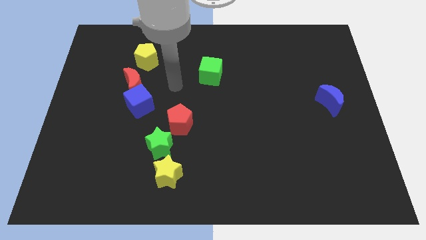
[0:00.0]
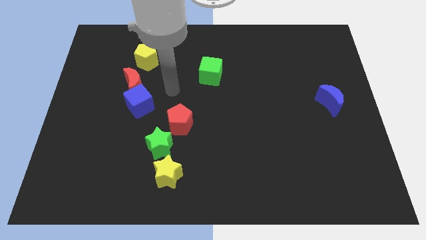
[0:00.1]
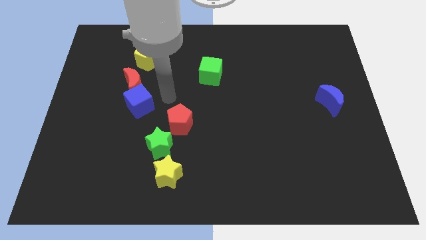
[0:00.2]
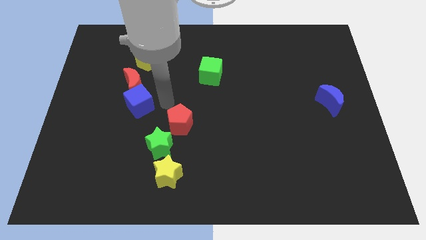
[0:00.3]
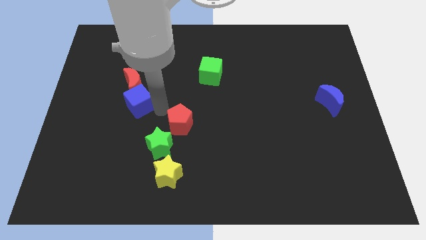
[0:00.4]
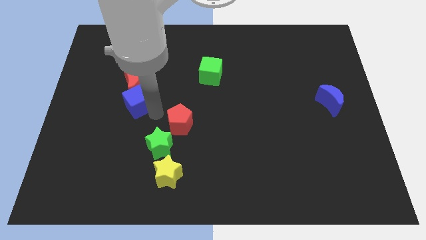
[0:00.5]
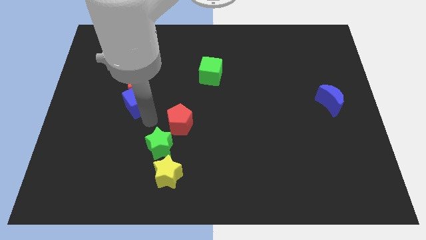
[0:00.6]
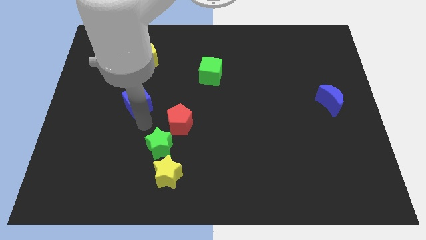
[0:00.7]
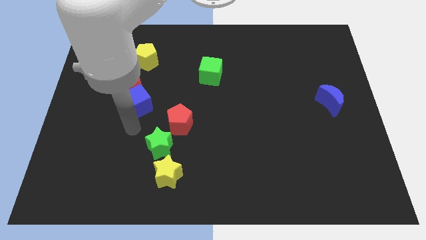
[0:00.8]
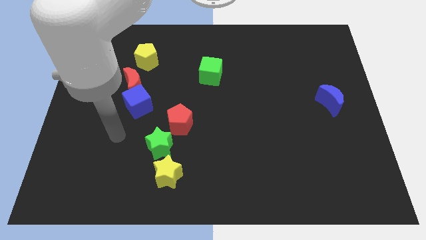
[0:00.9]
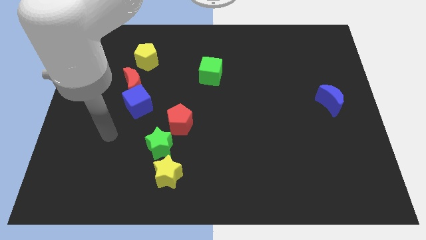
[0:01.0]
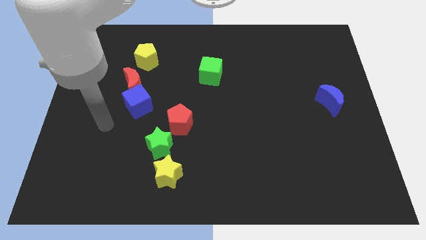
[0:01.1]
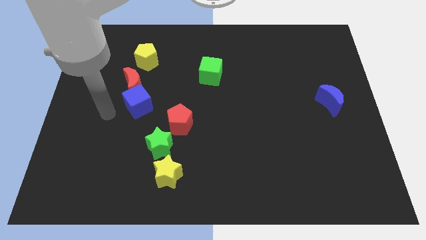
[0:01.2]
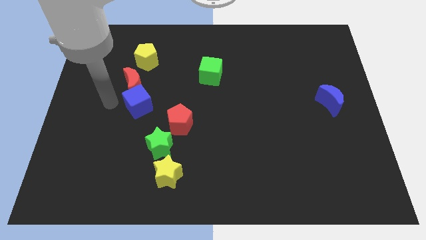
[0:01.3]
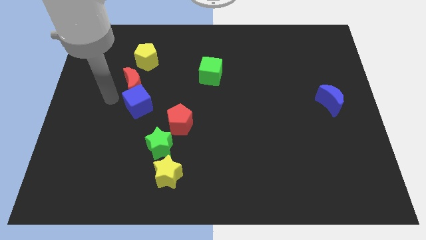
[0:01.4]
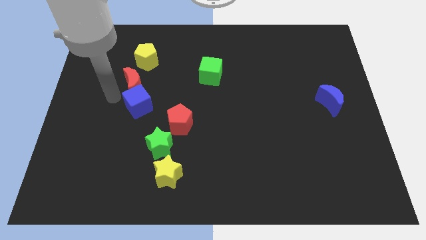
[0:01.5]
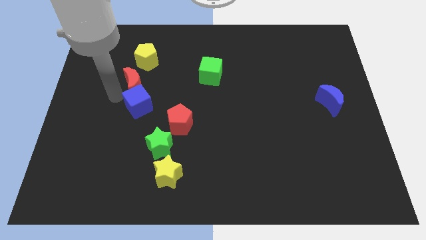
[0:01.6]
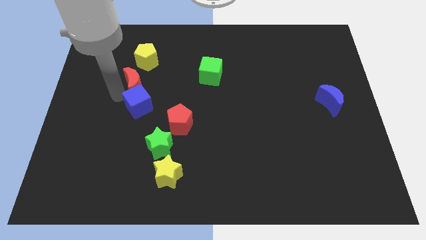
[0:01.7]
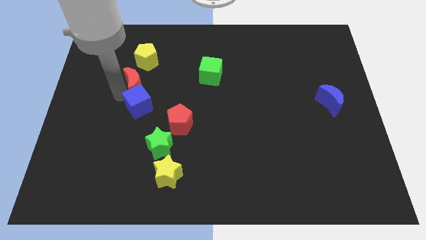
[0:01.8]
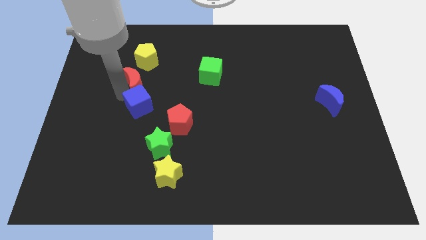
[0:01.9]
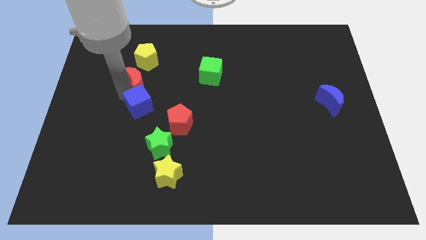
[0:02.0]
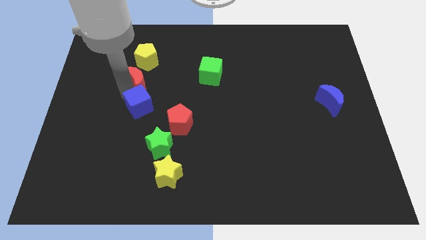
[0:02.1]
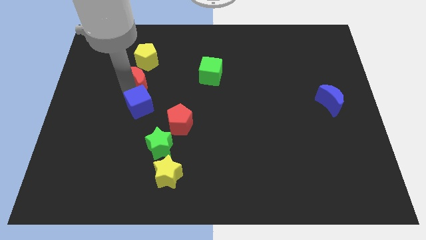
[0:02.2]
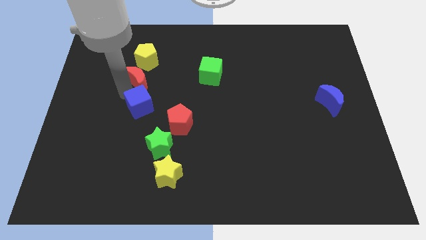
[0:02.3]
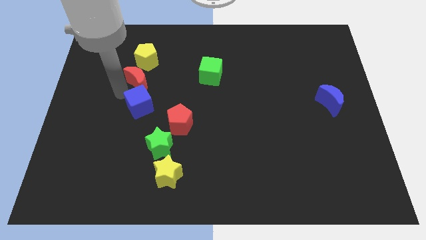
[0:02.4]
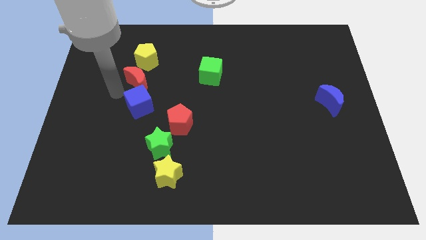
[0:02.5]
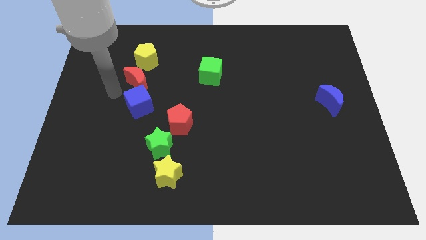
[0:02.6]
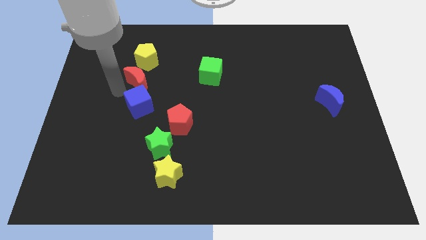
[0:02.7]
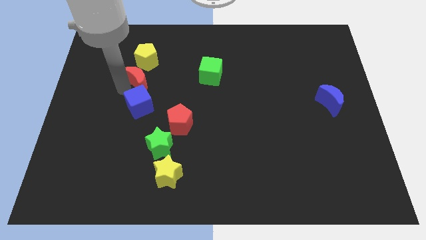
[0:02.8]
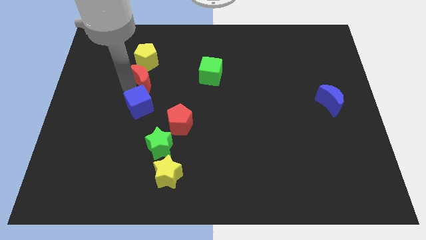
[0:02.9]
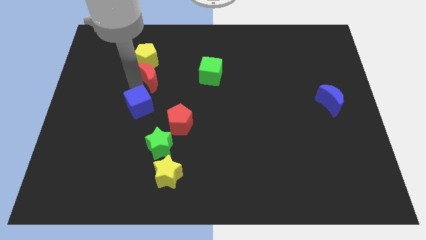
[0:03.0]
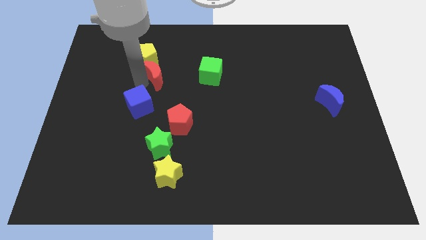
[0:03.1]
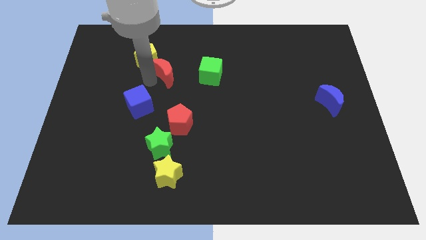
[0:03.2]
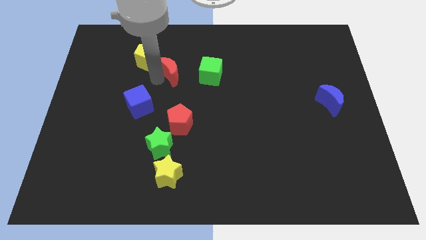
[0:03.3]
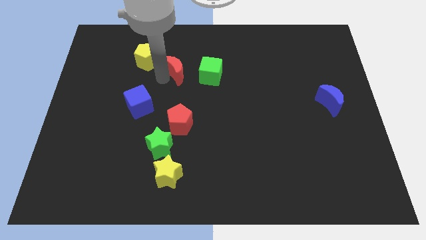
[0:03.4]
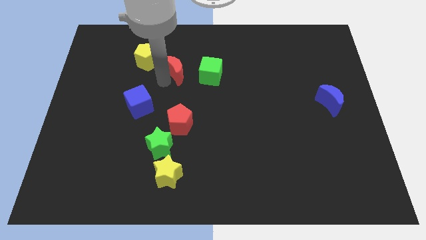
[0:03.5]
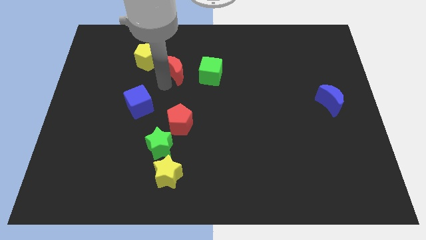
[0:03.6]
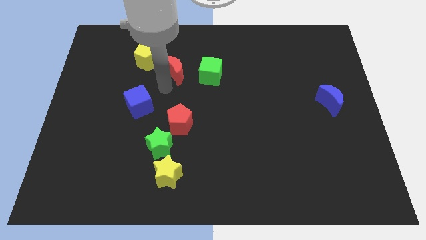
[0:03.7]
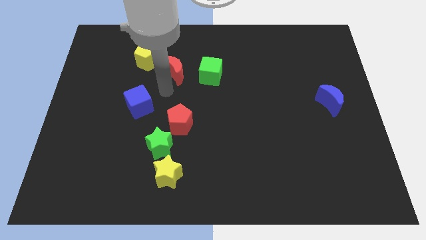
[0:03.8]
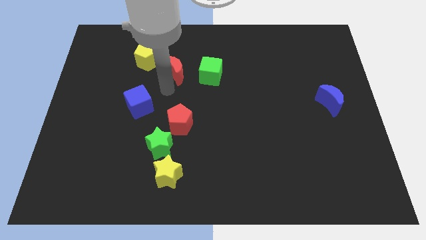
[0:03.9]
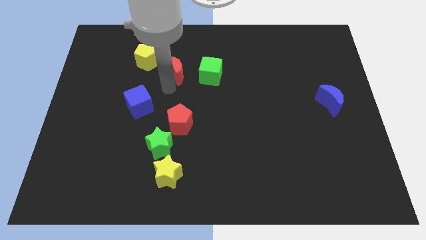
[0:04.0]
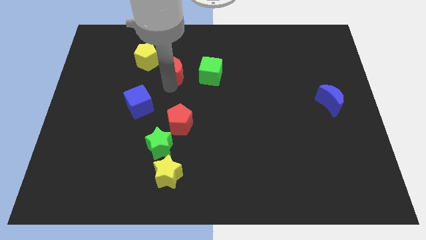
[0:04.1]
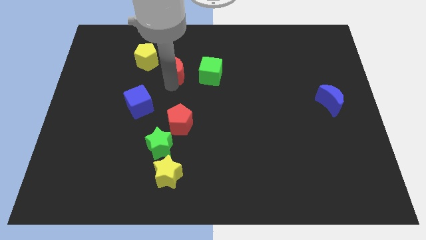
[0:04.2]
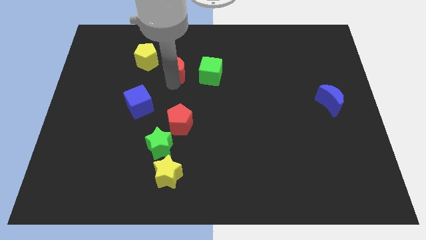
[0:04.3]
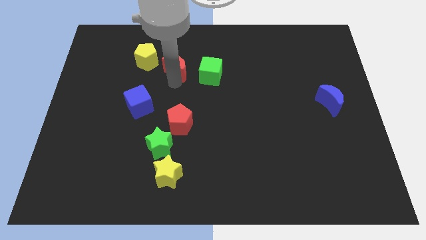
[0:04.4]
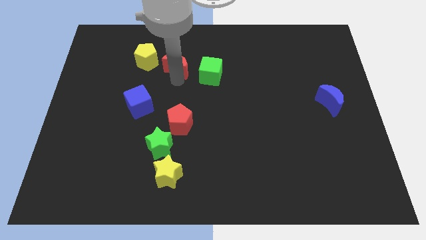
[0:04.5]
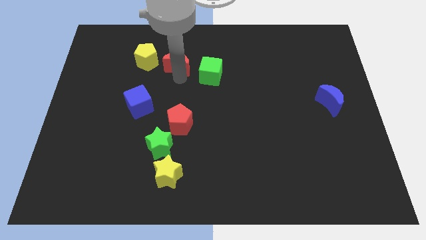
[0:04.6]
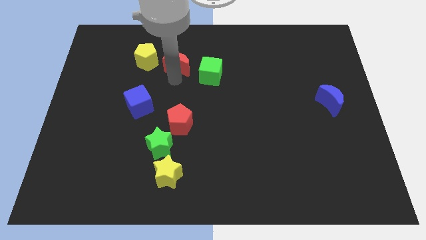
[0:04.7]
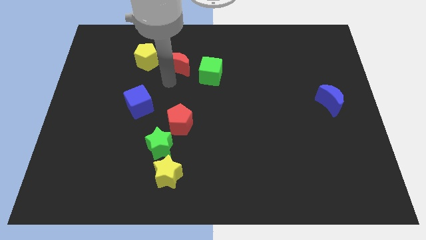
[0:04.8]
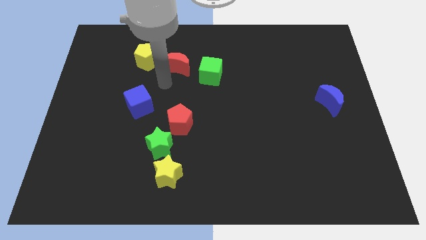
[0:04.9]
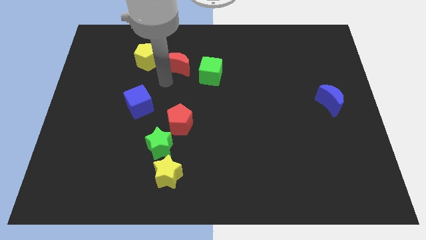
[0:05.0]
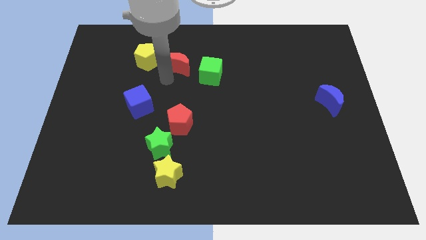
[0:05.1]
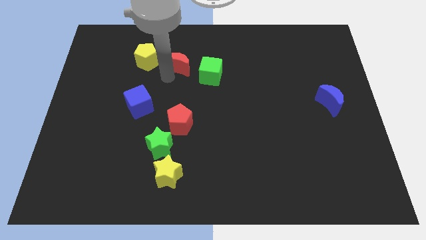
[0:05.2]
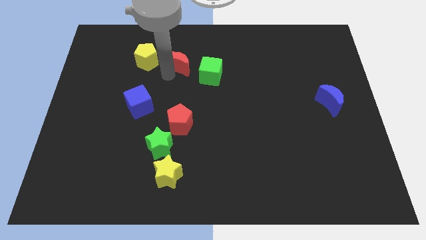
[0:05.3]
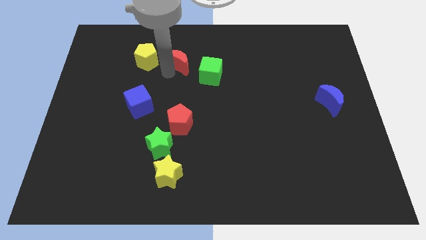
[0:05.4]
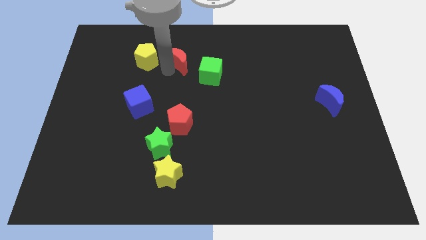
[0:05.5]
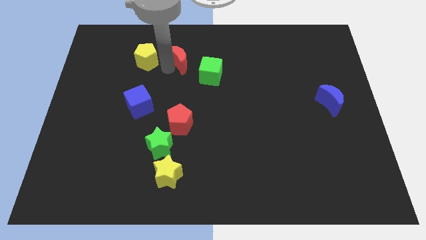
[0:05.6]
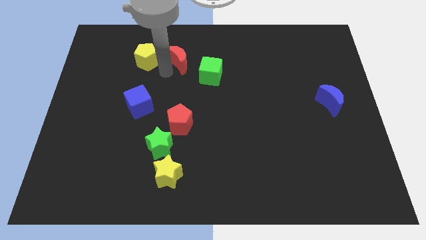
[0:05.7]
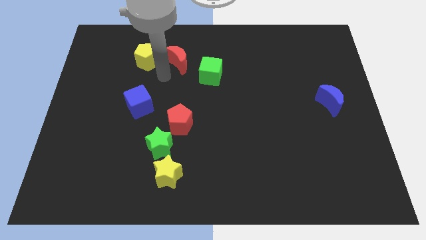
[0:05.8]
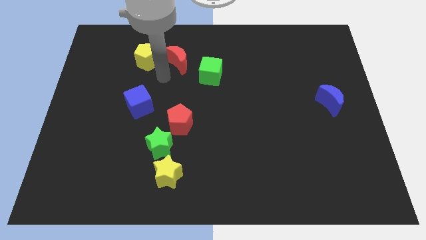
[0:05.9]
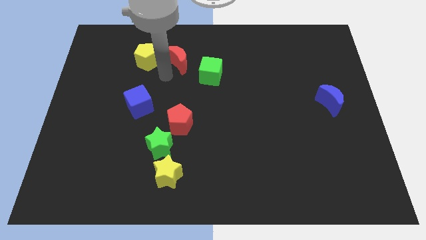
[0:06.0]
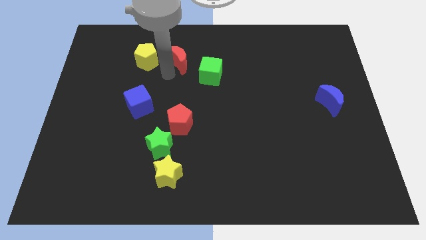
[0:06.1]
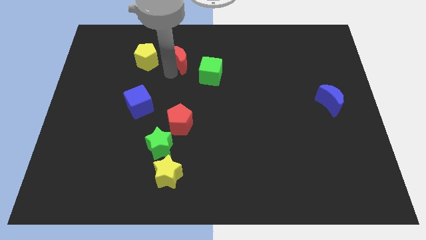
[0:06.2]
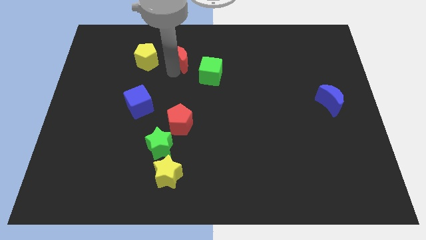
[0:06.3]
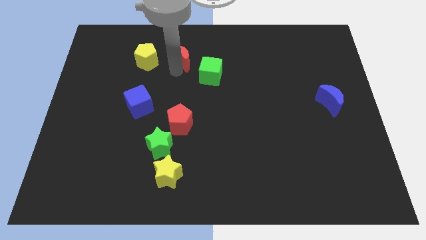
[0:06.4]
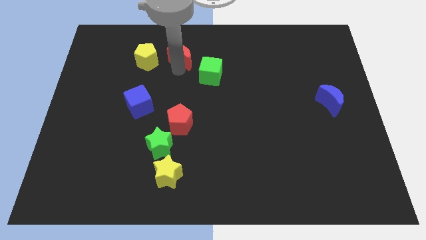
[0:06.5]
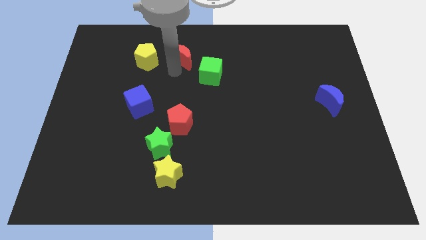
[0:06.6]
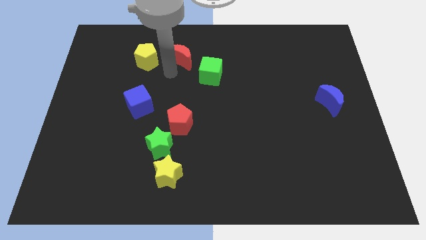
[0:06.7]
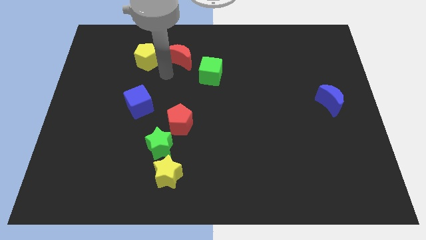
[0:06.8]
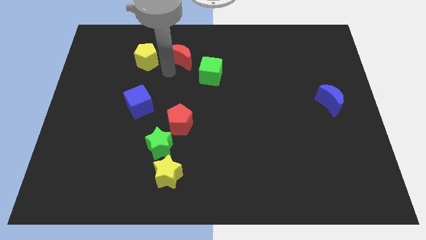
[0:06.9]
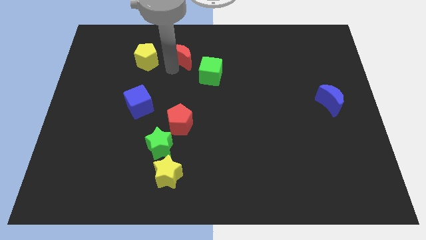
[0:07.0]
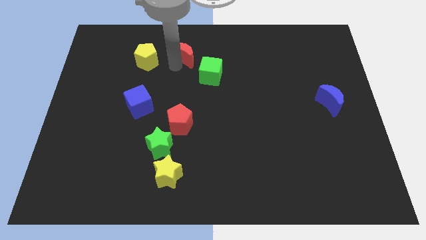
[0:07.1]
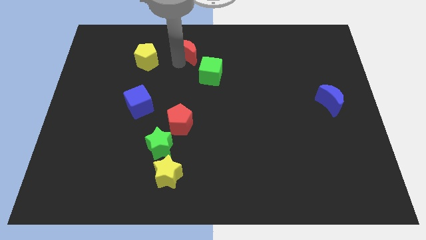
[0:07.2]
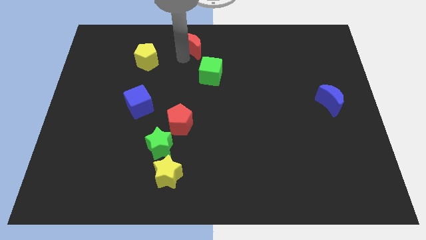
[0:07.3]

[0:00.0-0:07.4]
slide the red moon to the top side
